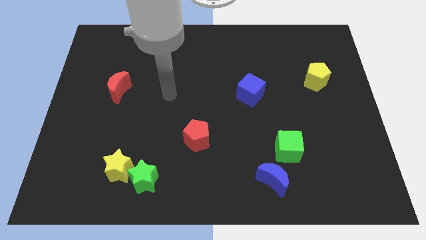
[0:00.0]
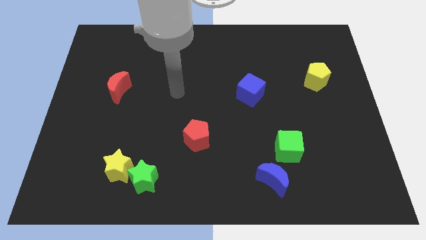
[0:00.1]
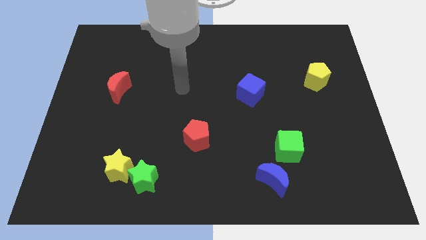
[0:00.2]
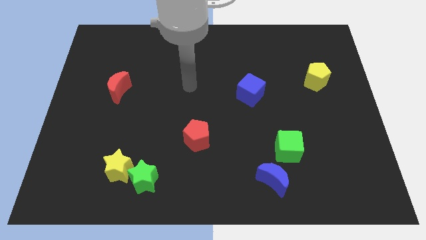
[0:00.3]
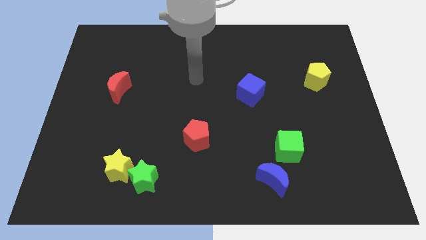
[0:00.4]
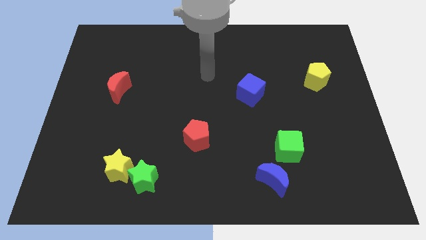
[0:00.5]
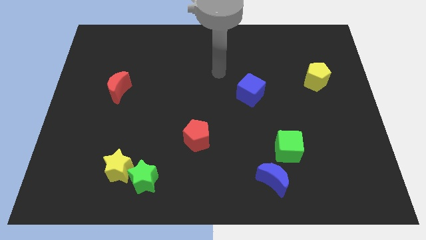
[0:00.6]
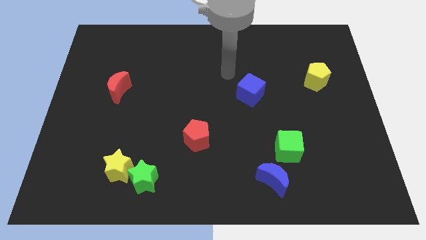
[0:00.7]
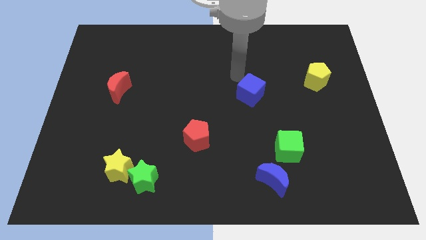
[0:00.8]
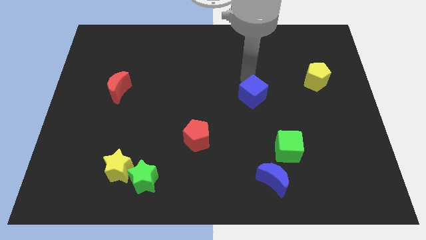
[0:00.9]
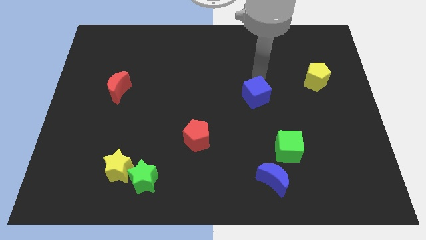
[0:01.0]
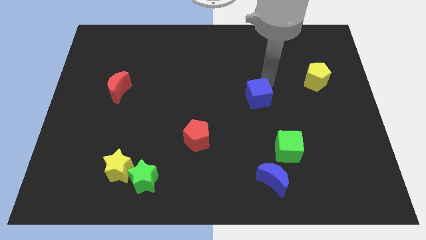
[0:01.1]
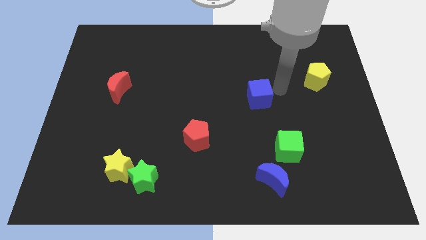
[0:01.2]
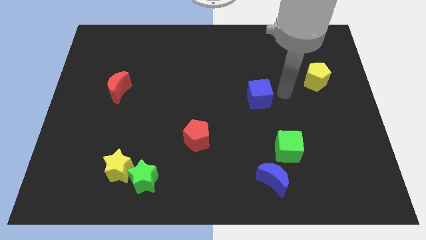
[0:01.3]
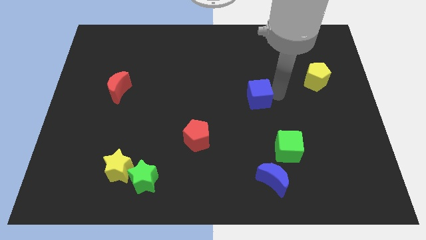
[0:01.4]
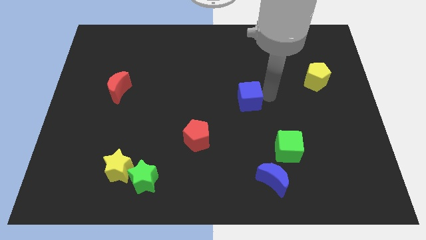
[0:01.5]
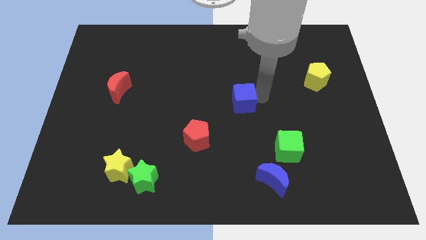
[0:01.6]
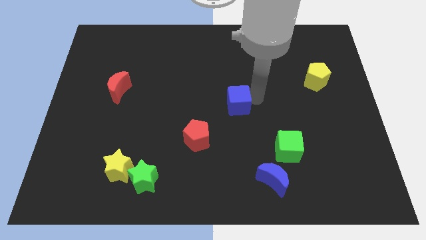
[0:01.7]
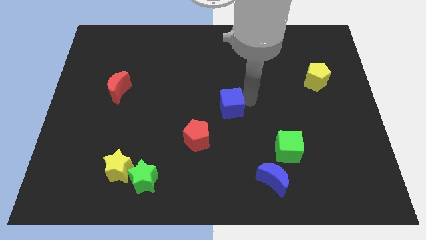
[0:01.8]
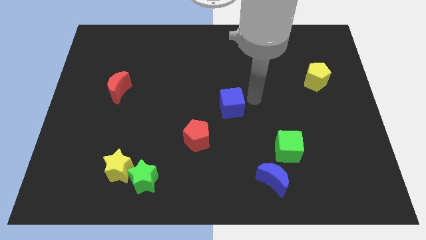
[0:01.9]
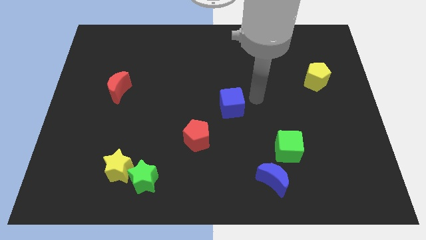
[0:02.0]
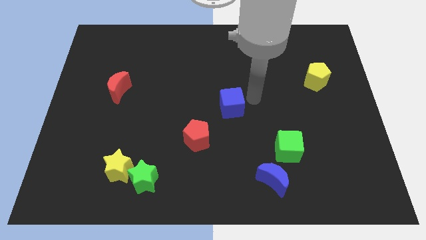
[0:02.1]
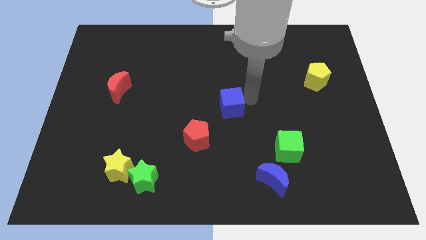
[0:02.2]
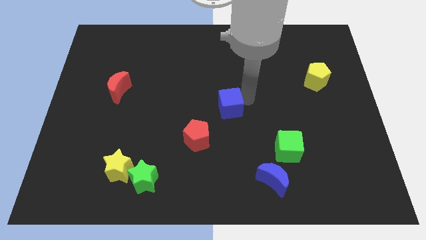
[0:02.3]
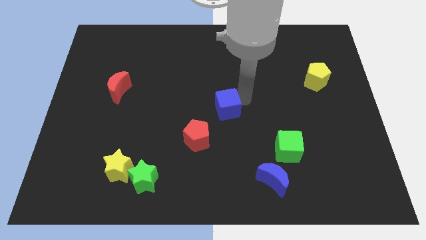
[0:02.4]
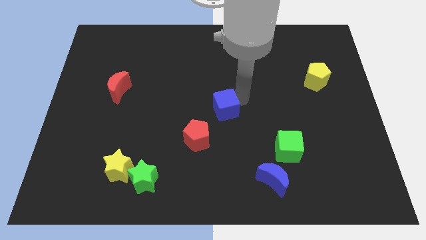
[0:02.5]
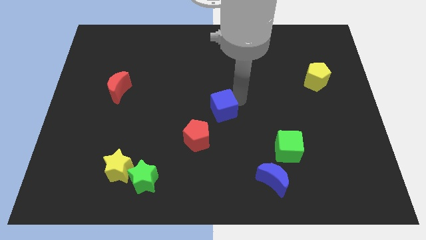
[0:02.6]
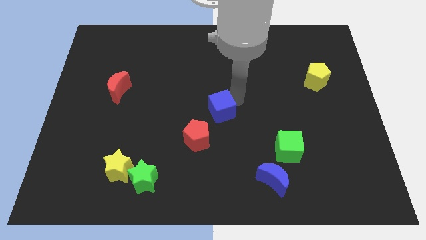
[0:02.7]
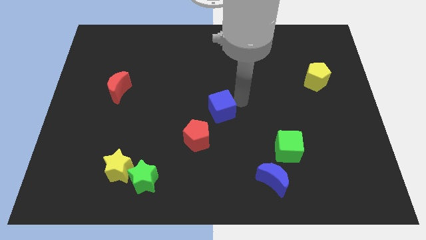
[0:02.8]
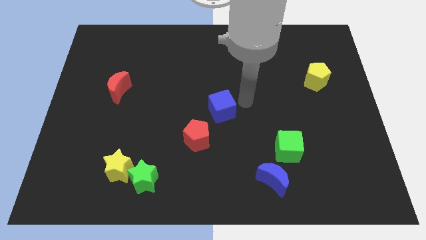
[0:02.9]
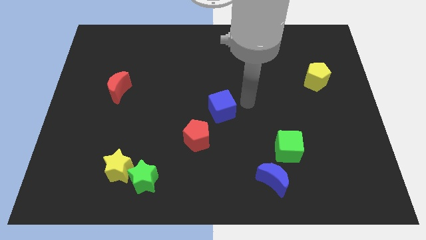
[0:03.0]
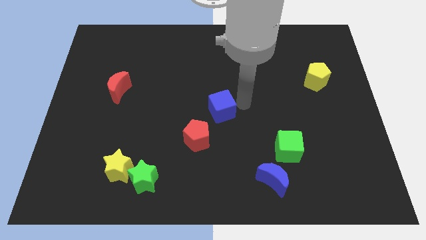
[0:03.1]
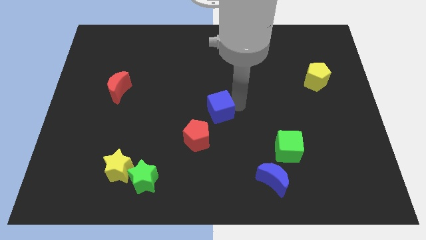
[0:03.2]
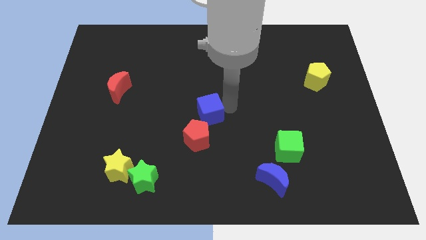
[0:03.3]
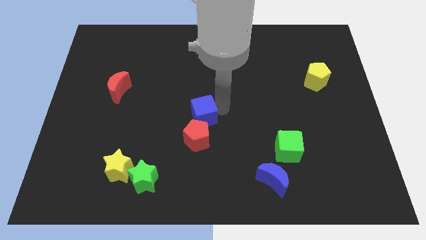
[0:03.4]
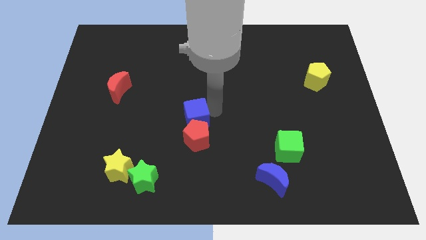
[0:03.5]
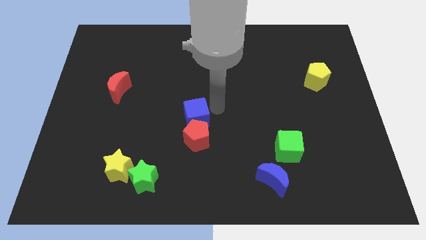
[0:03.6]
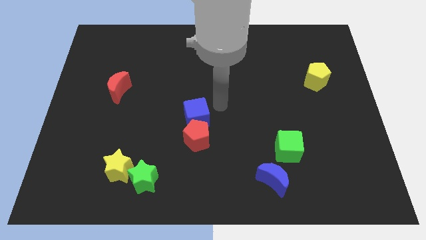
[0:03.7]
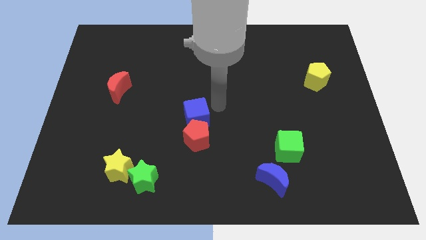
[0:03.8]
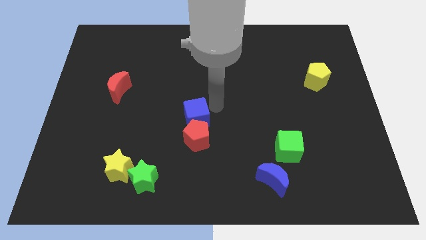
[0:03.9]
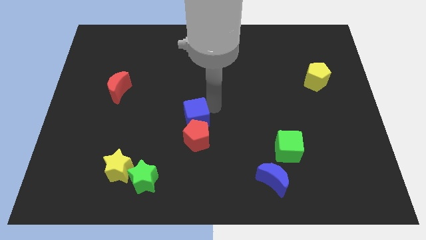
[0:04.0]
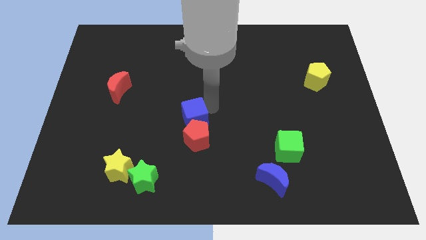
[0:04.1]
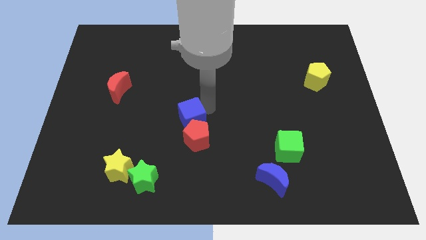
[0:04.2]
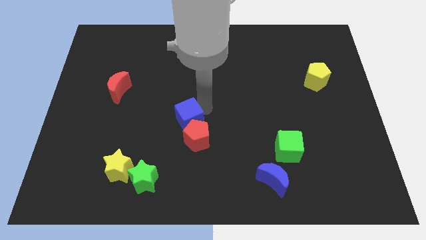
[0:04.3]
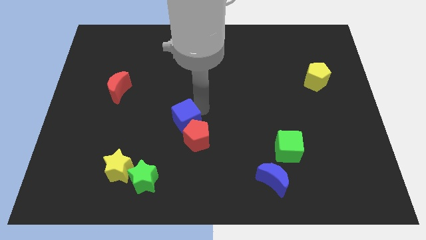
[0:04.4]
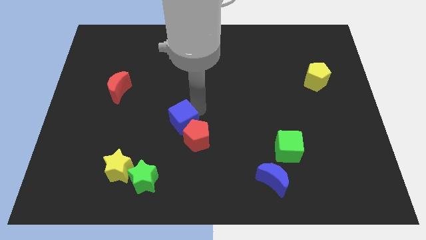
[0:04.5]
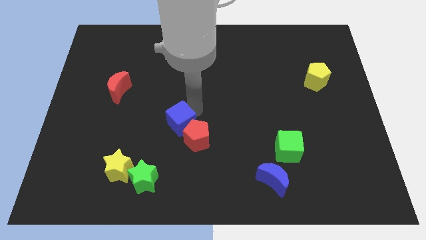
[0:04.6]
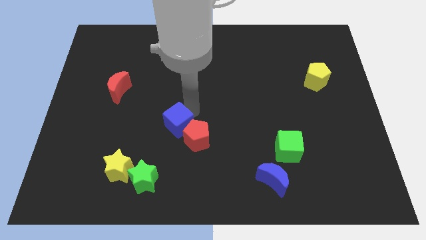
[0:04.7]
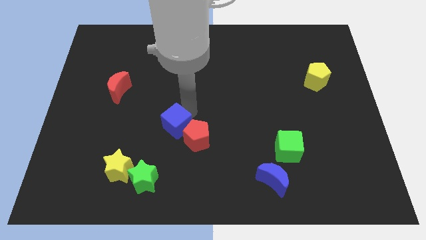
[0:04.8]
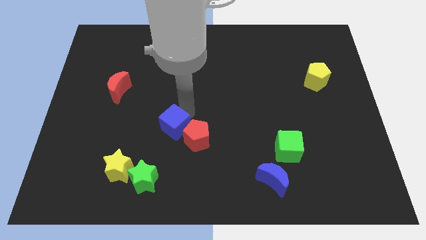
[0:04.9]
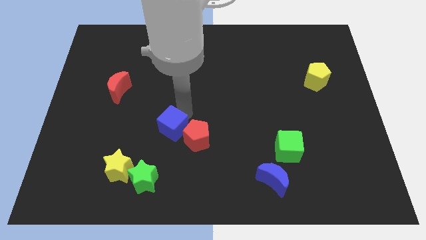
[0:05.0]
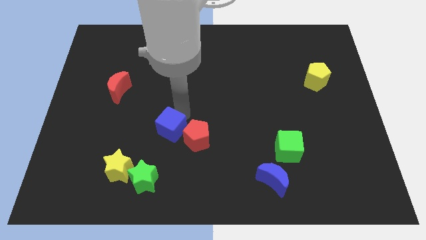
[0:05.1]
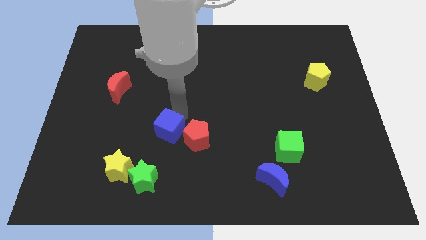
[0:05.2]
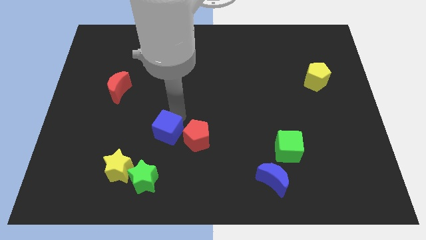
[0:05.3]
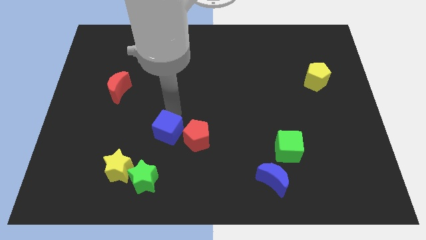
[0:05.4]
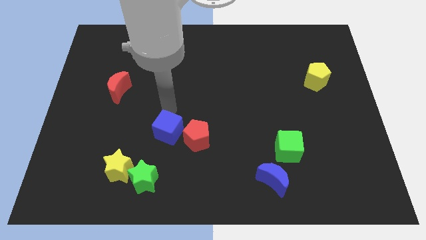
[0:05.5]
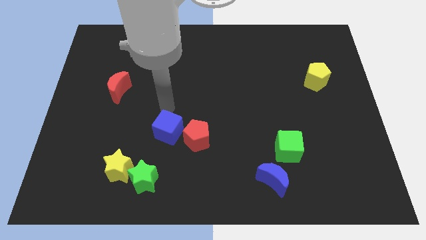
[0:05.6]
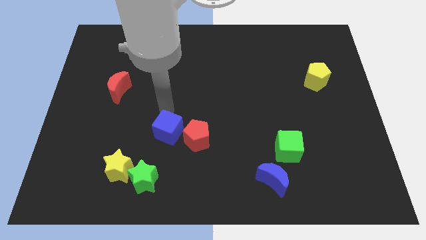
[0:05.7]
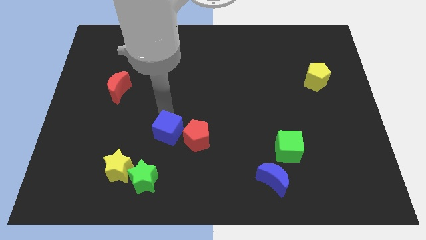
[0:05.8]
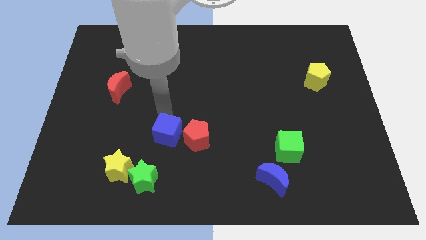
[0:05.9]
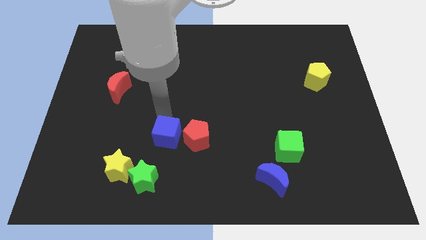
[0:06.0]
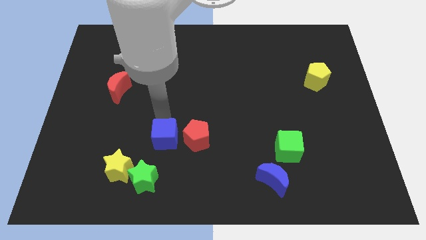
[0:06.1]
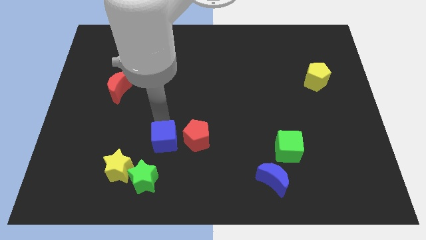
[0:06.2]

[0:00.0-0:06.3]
push the blue cube to the top right side of the green star
